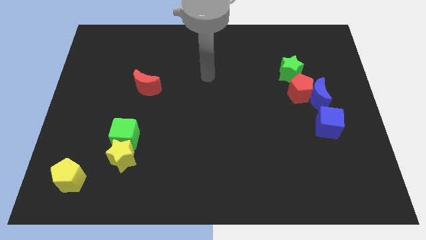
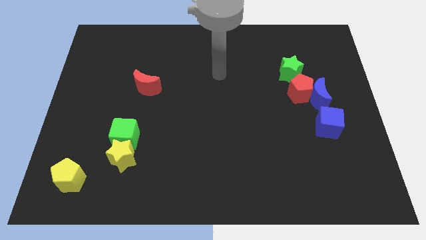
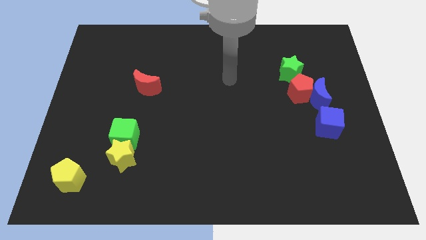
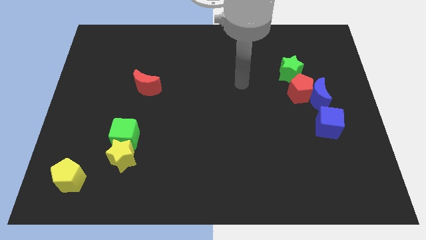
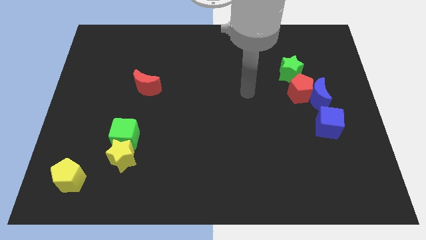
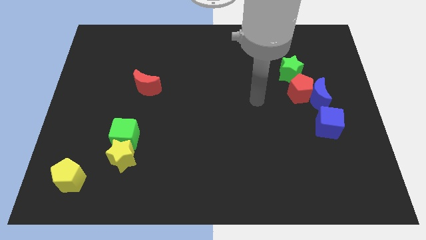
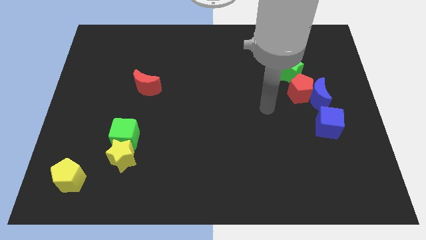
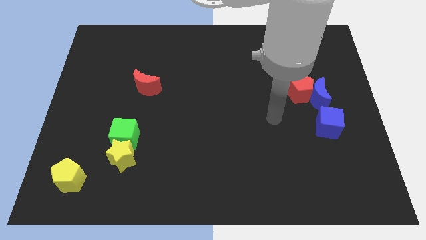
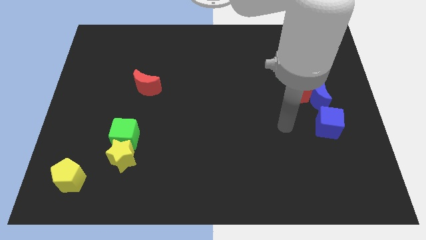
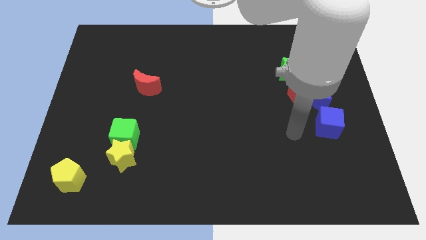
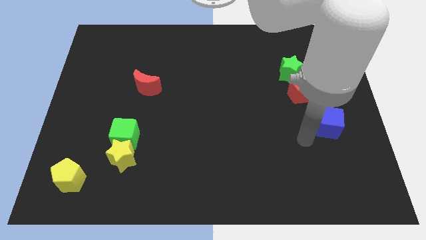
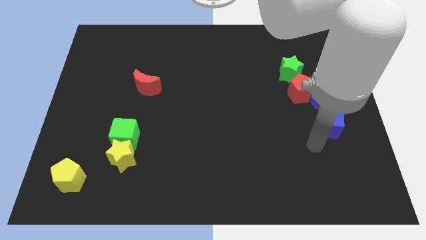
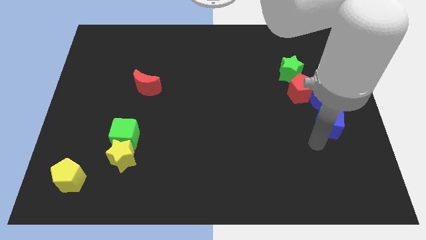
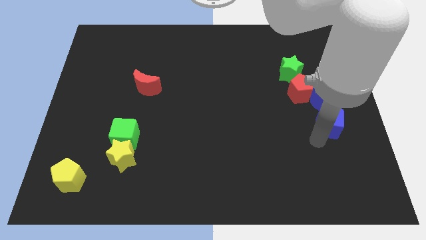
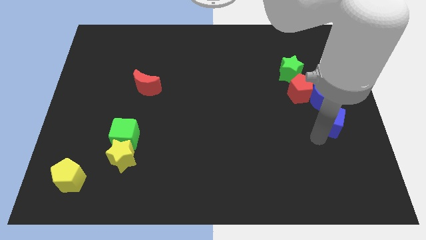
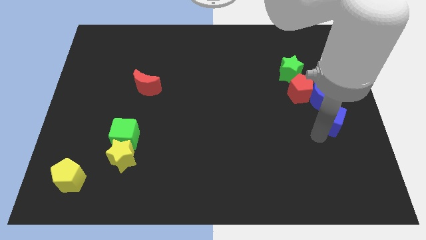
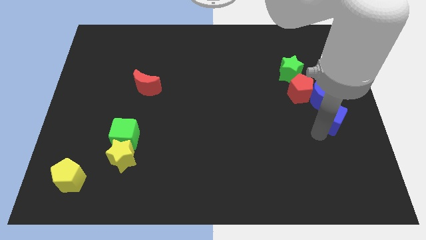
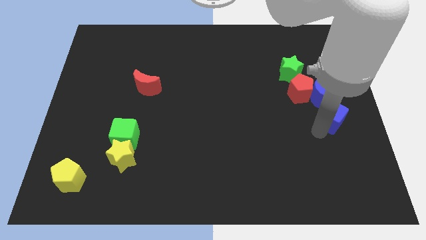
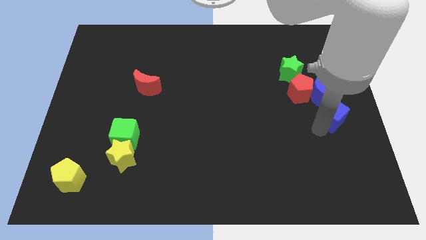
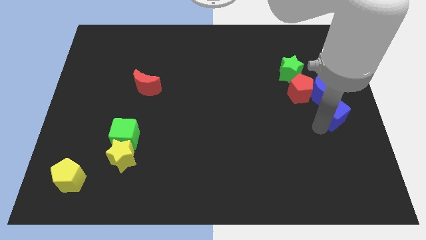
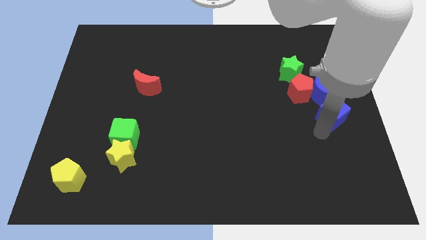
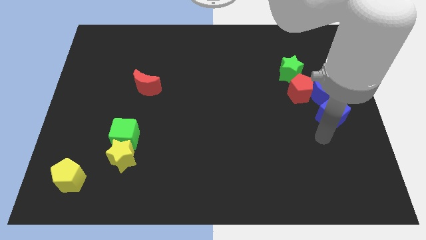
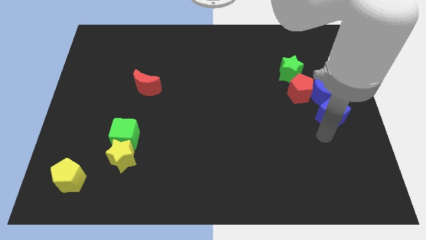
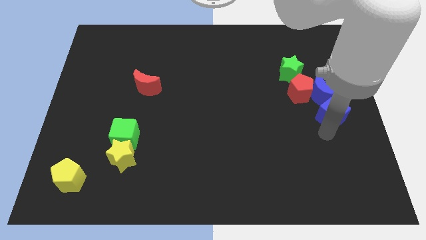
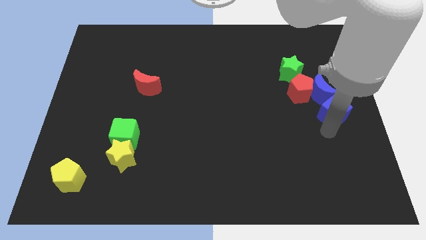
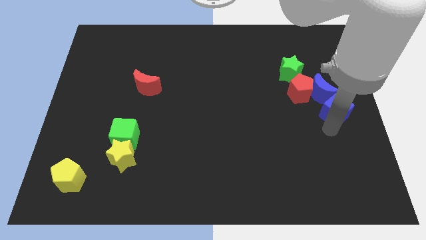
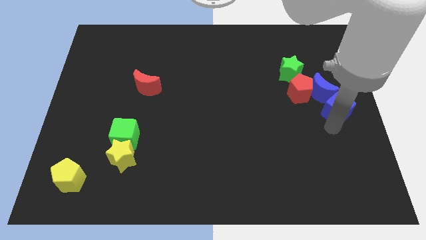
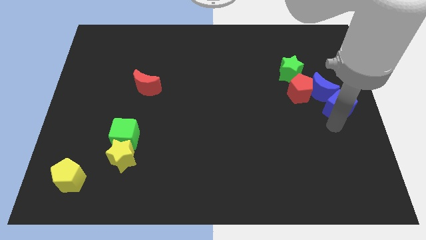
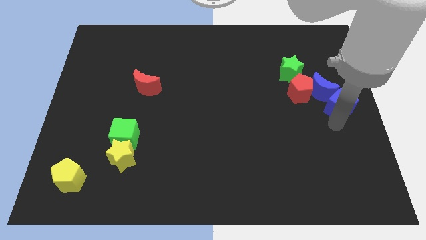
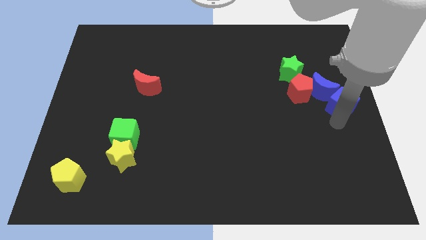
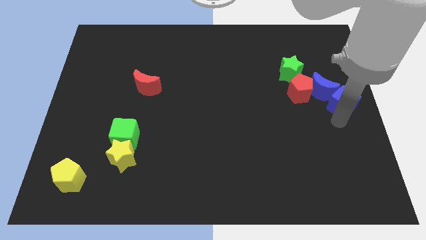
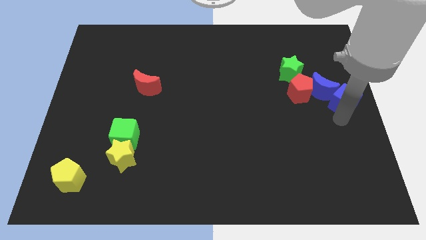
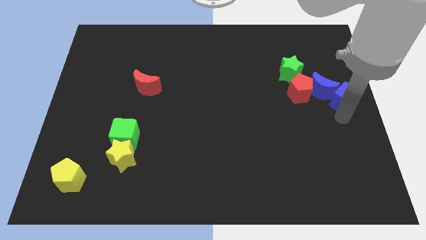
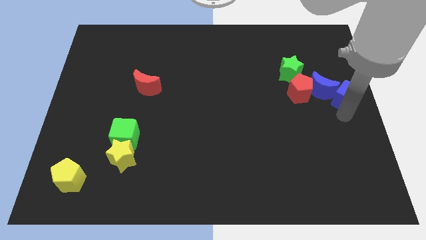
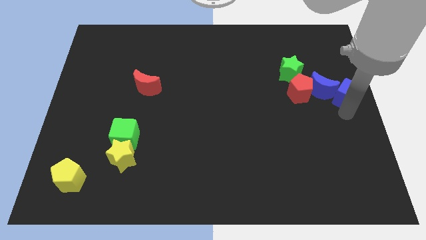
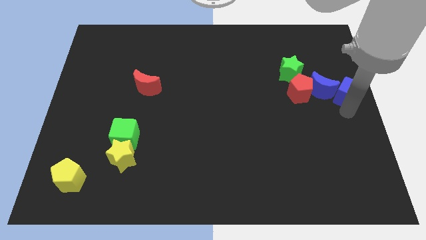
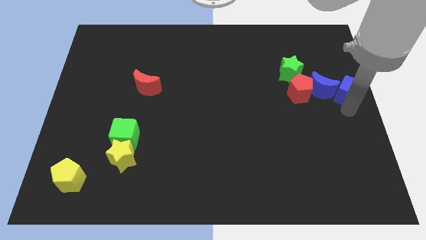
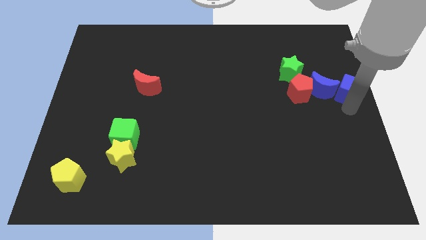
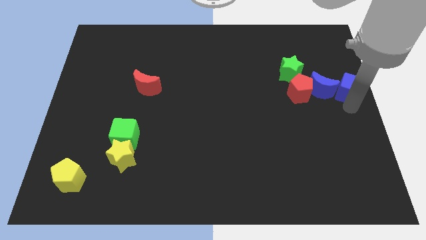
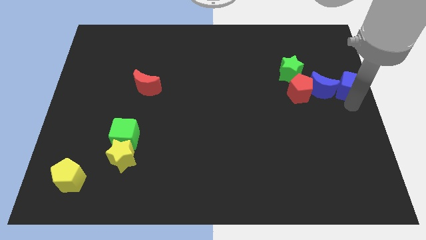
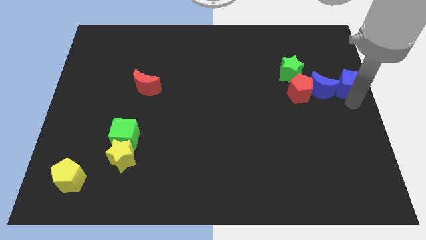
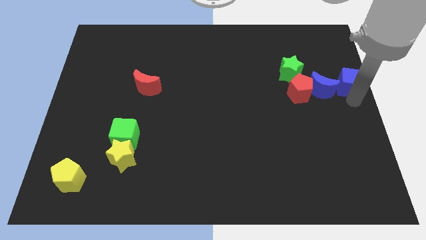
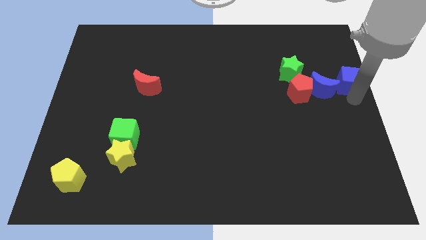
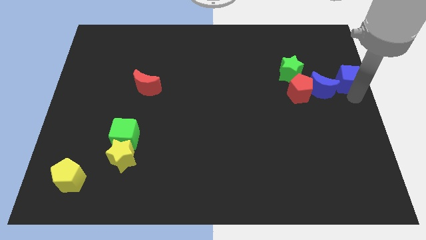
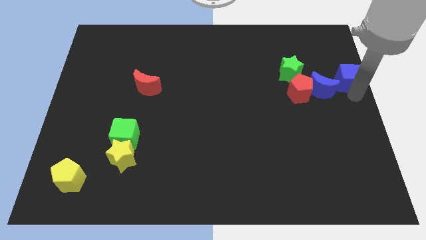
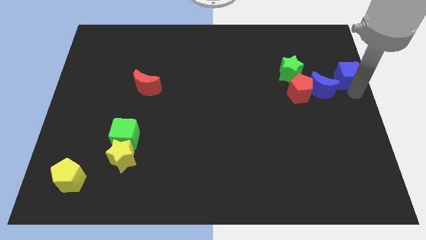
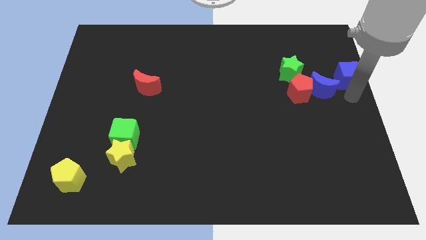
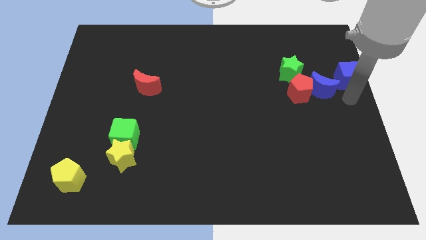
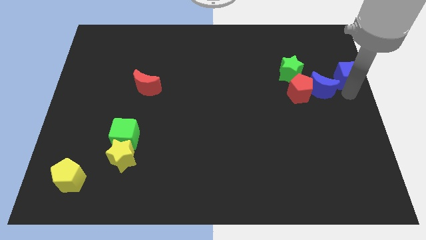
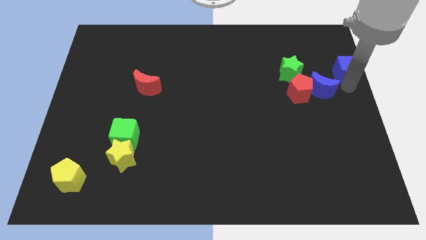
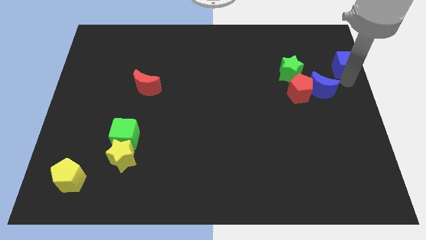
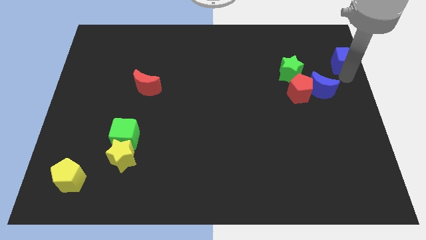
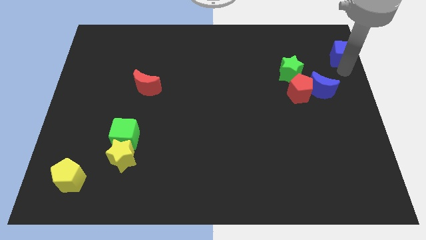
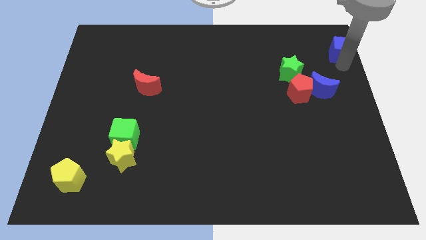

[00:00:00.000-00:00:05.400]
move the blue cube to the top right corner

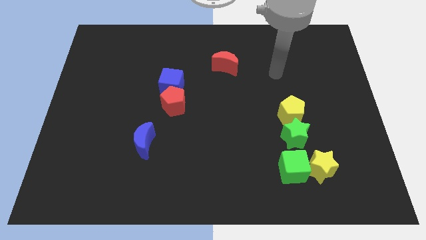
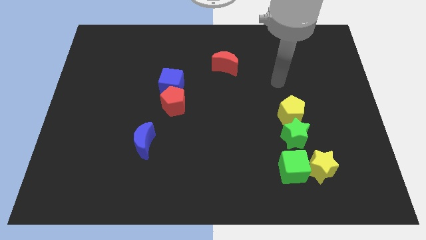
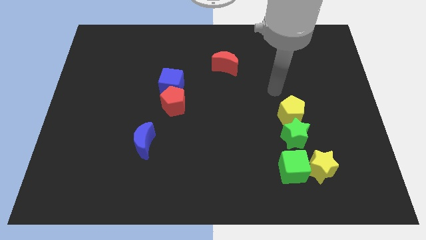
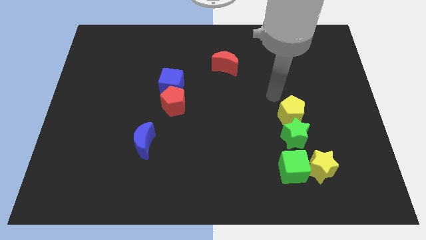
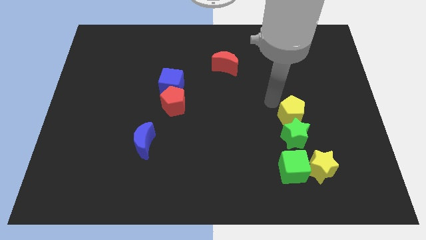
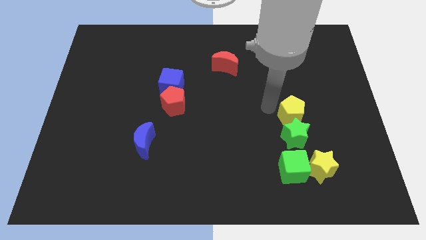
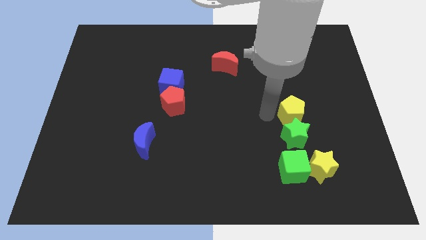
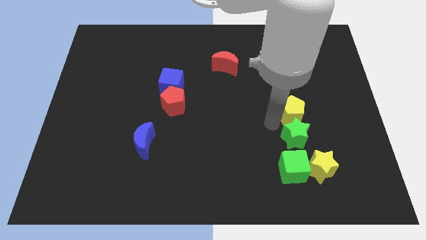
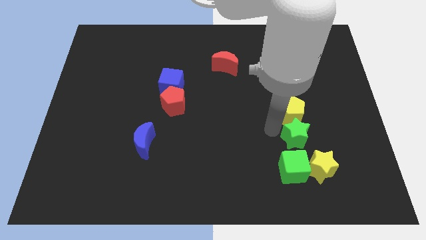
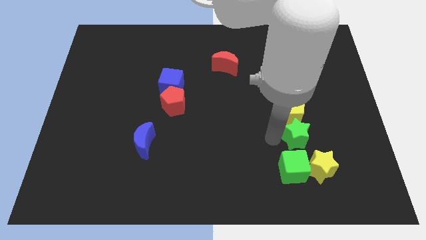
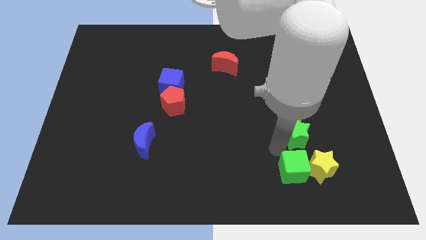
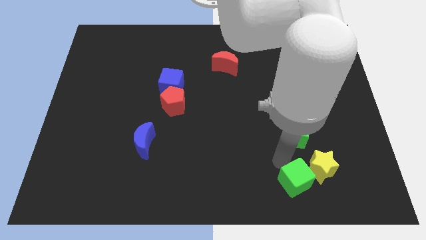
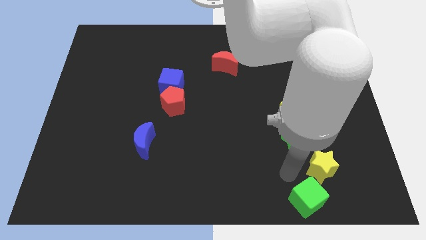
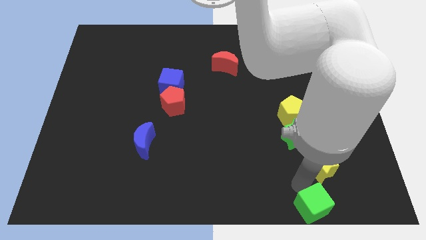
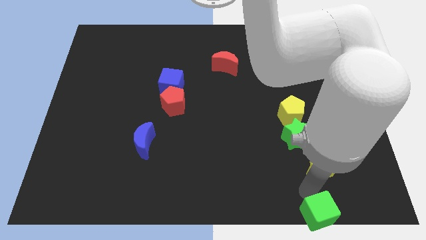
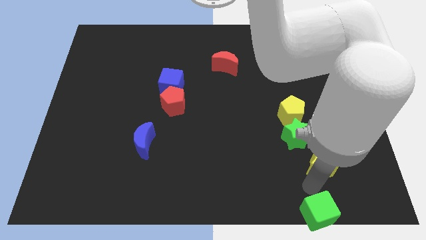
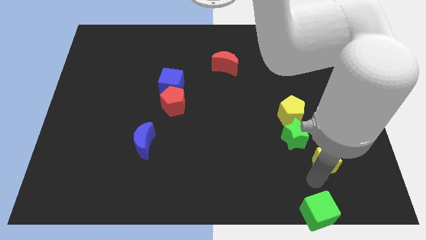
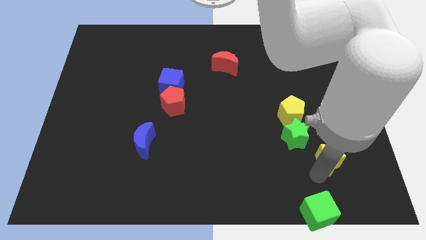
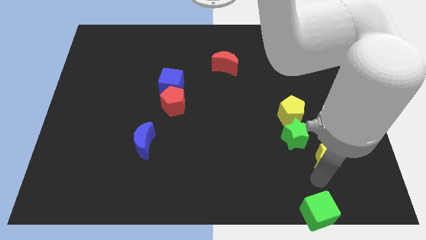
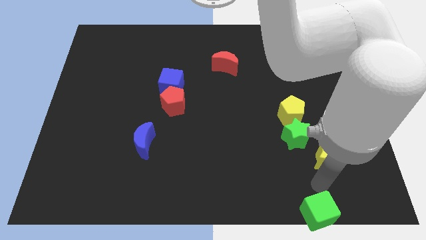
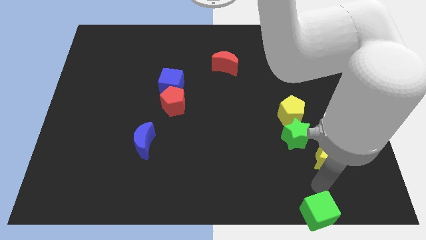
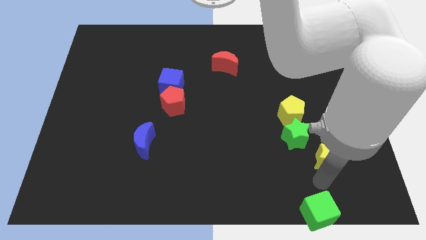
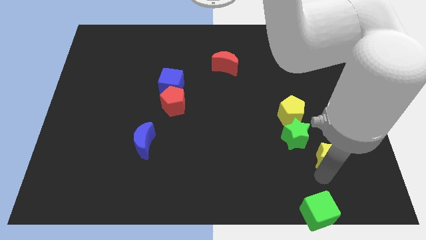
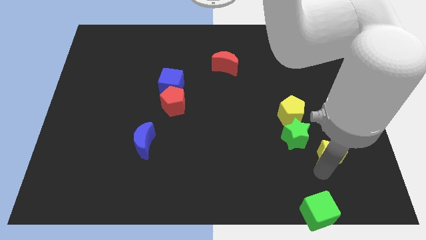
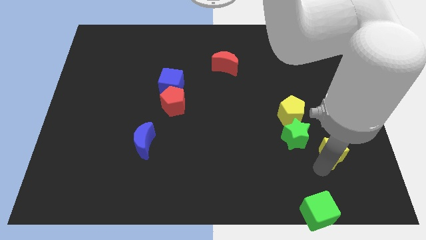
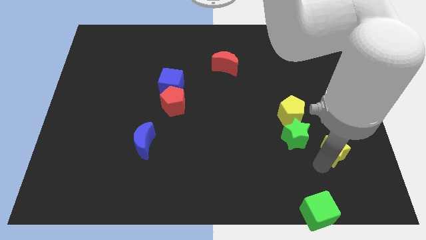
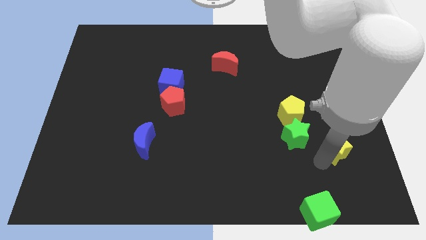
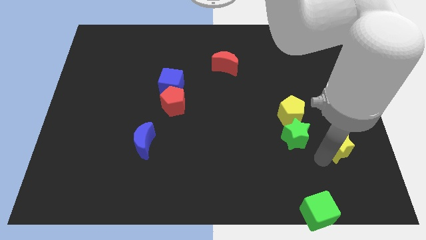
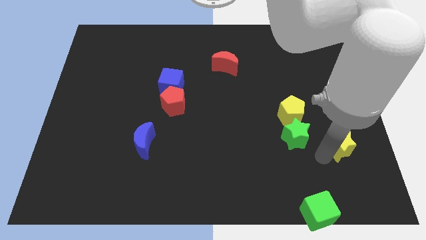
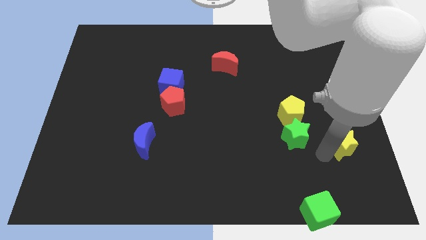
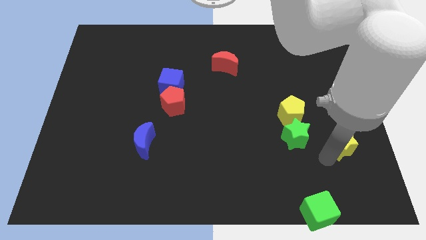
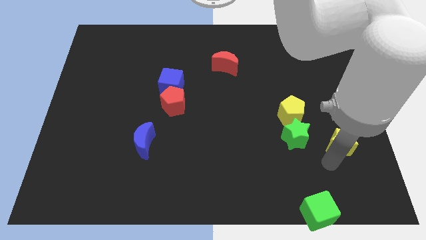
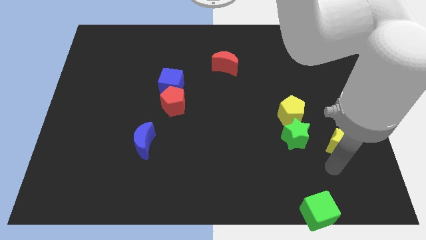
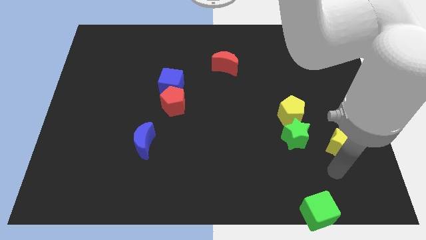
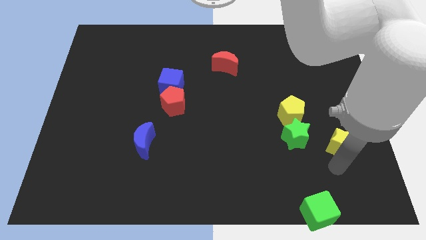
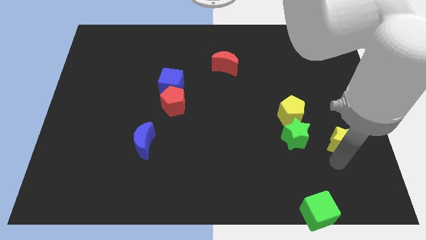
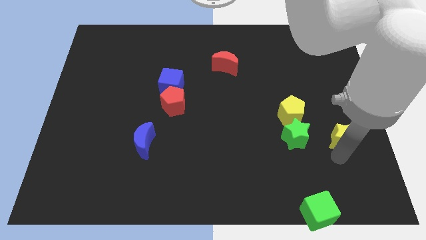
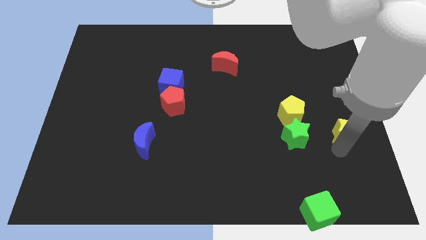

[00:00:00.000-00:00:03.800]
push the yellow star to the right side of the board
